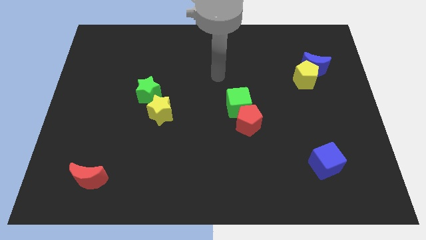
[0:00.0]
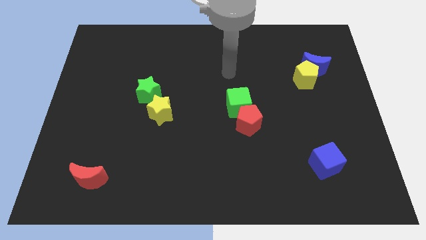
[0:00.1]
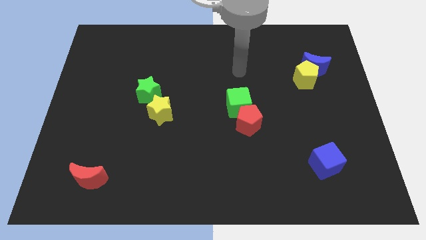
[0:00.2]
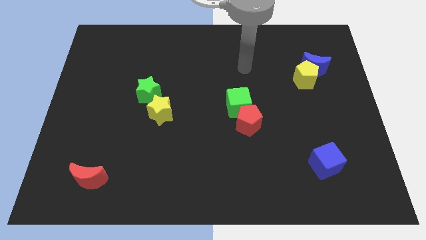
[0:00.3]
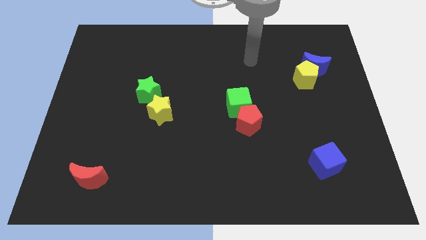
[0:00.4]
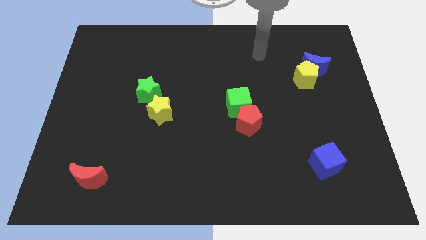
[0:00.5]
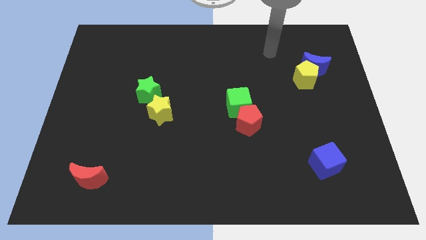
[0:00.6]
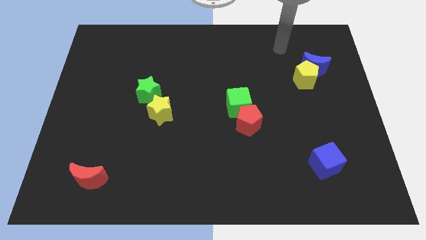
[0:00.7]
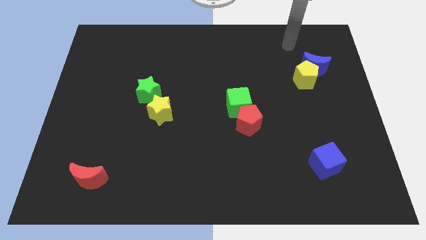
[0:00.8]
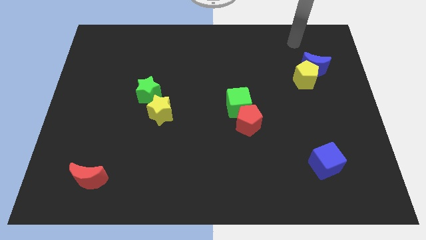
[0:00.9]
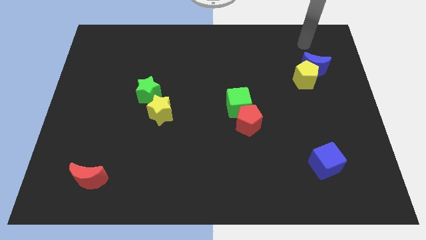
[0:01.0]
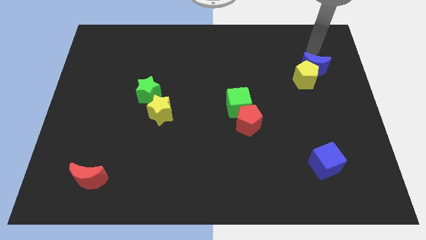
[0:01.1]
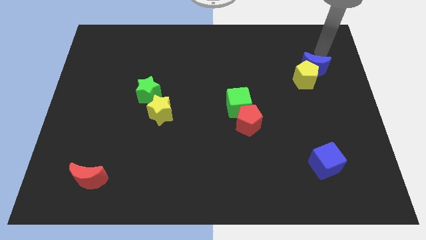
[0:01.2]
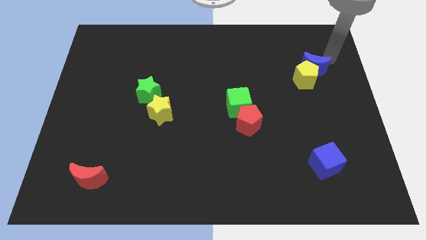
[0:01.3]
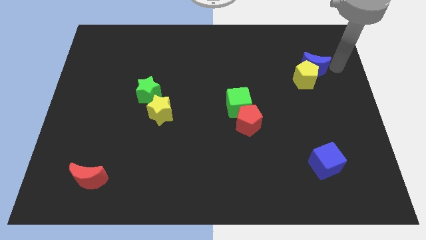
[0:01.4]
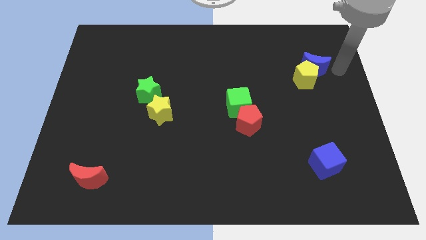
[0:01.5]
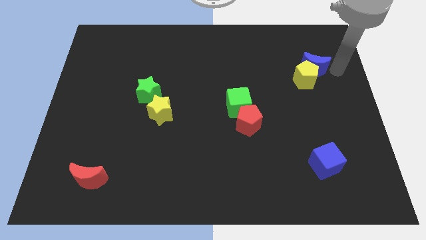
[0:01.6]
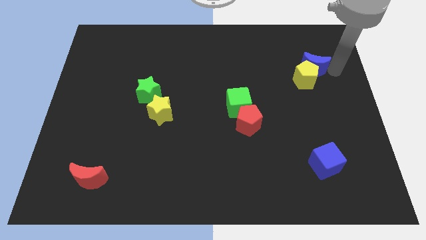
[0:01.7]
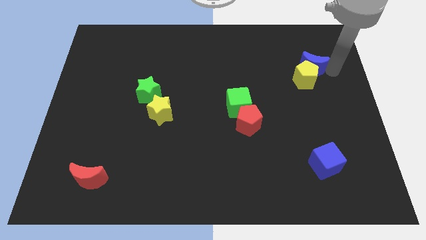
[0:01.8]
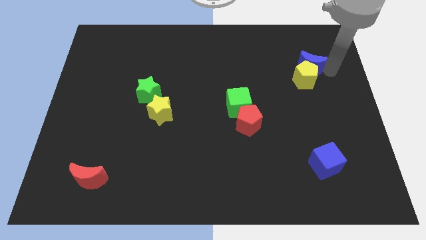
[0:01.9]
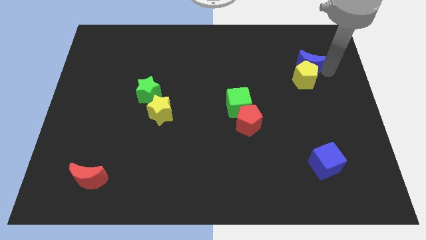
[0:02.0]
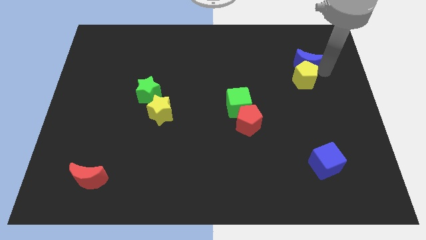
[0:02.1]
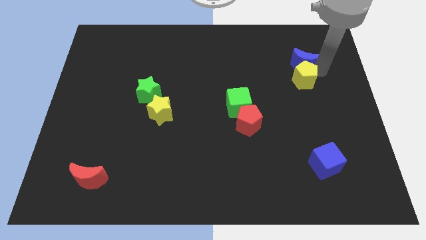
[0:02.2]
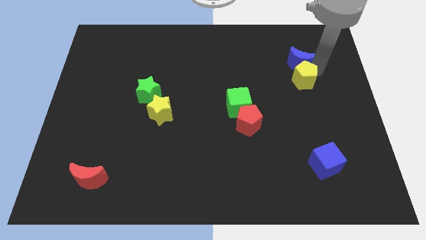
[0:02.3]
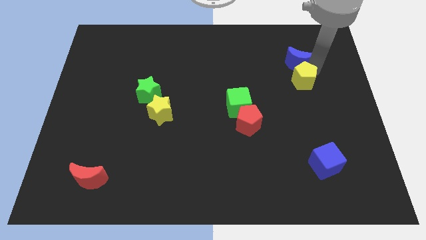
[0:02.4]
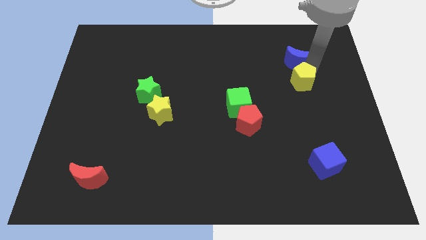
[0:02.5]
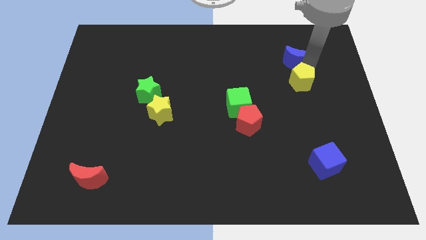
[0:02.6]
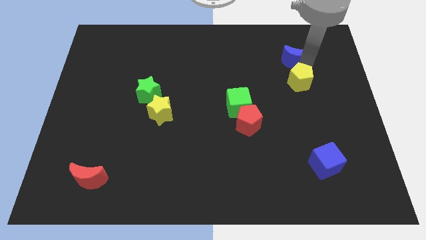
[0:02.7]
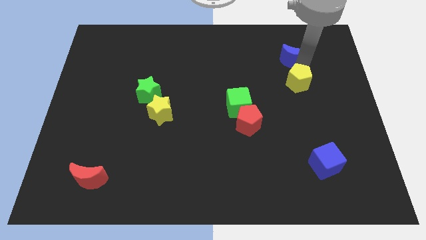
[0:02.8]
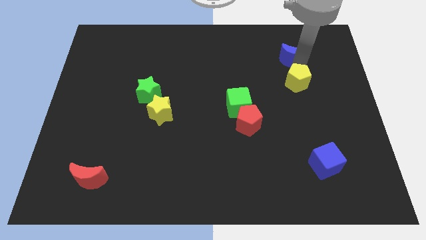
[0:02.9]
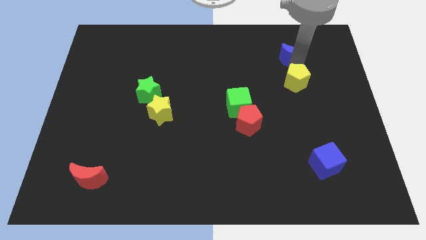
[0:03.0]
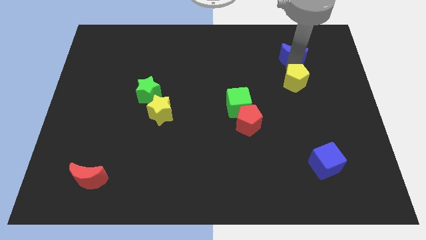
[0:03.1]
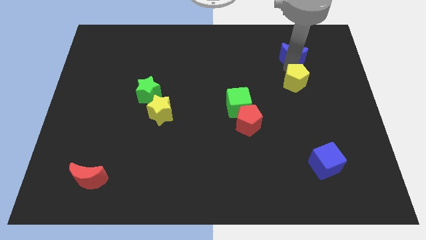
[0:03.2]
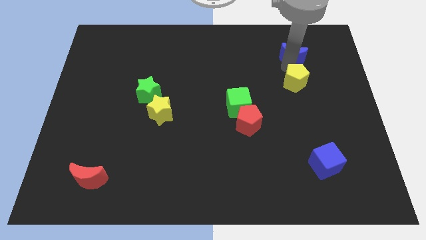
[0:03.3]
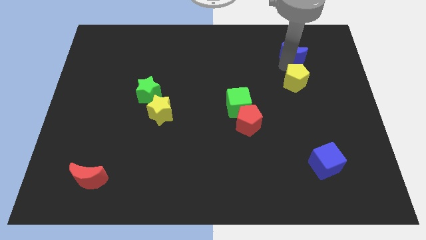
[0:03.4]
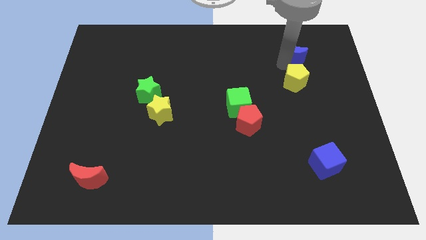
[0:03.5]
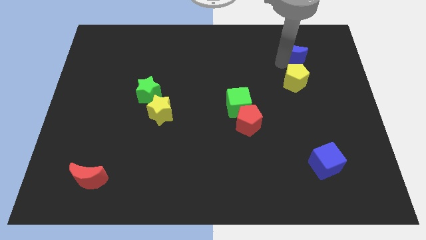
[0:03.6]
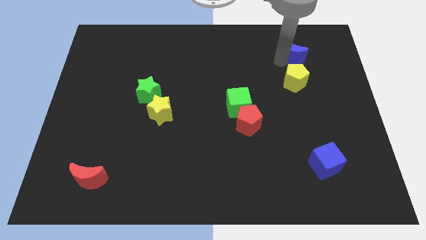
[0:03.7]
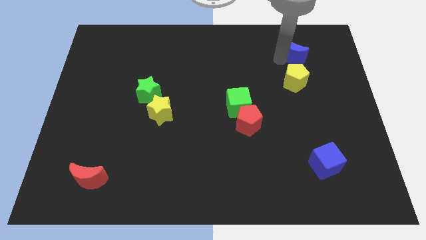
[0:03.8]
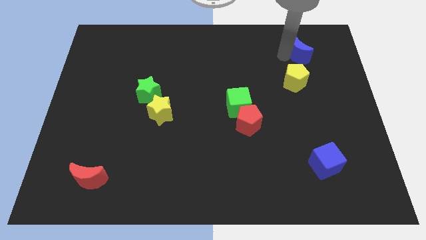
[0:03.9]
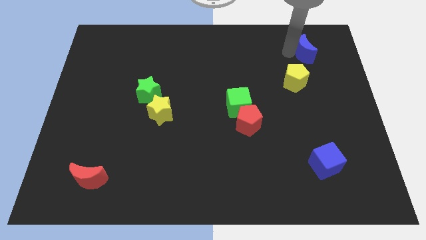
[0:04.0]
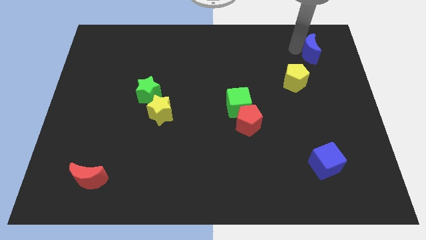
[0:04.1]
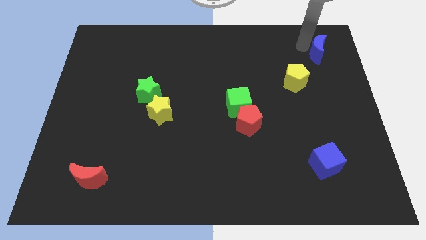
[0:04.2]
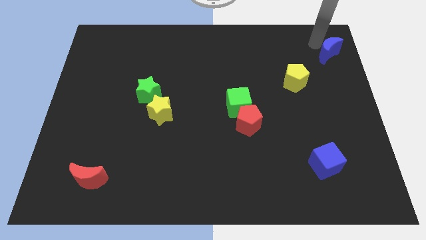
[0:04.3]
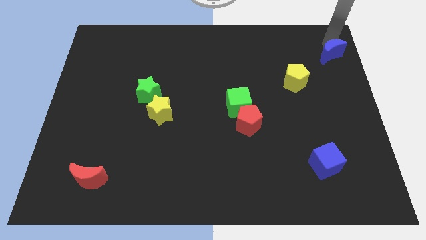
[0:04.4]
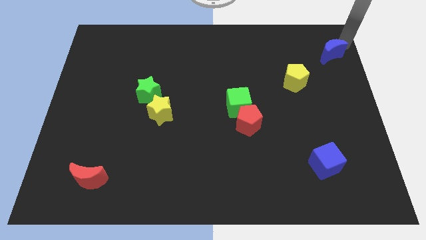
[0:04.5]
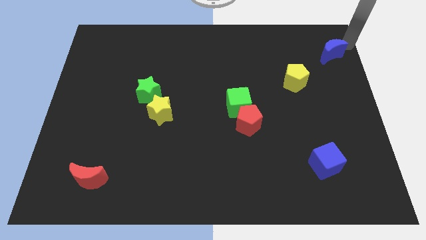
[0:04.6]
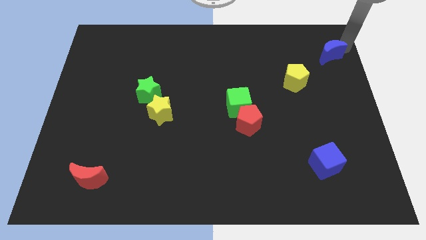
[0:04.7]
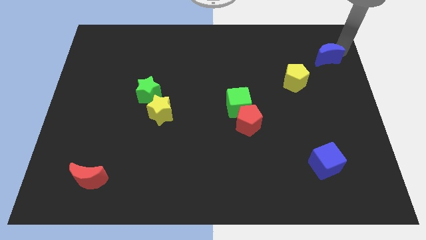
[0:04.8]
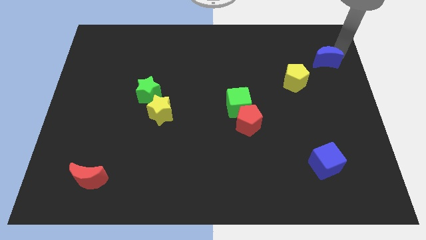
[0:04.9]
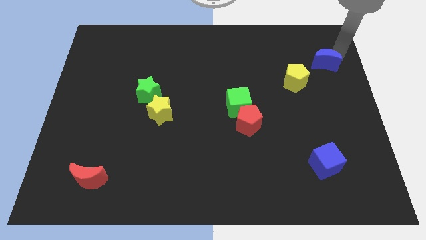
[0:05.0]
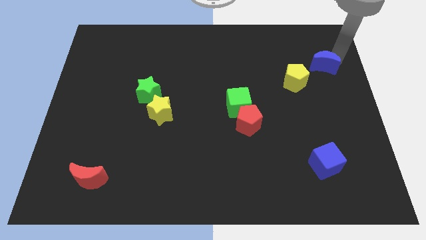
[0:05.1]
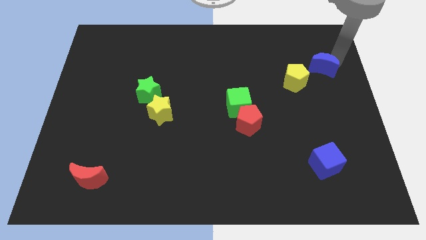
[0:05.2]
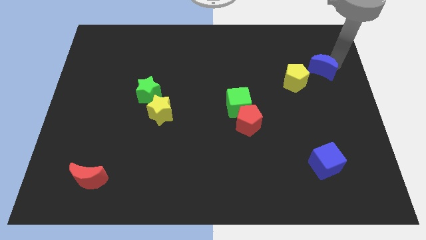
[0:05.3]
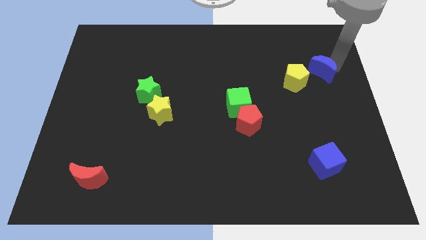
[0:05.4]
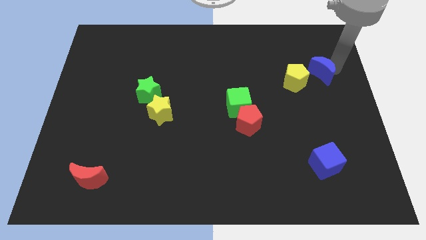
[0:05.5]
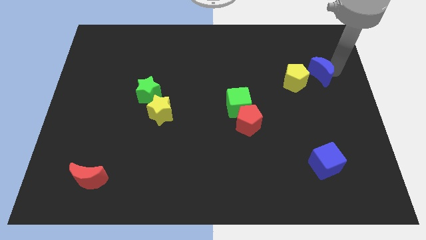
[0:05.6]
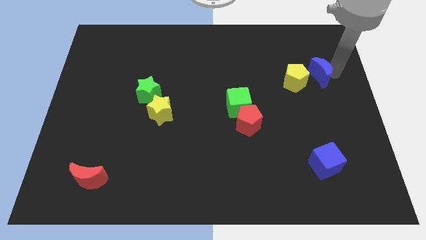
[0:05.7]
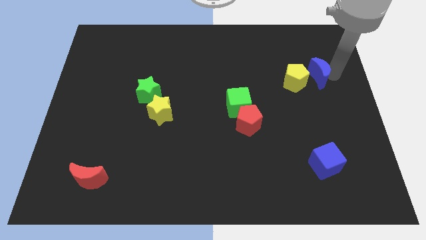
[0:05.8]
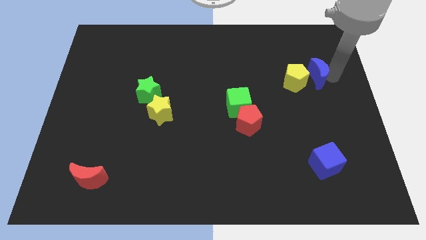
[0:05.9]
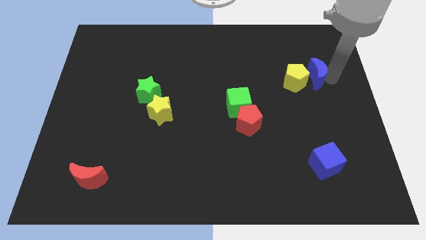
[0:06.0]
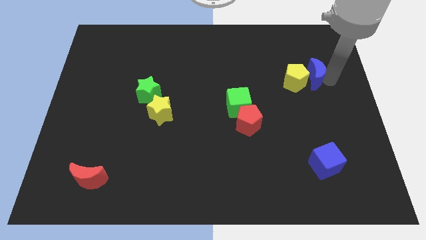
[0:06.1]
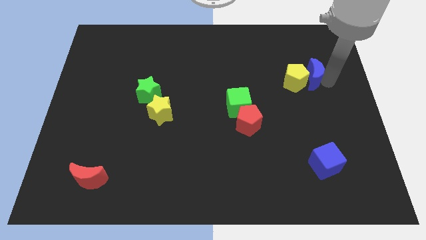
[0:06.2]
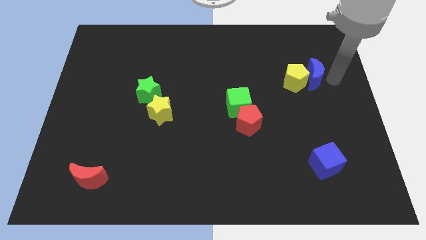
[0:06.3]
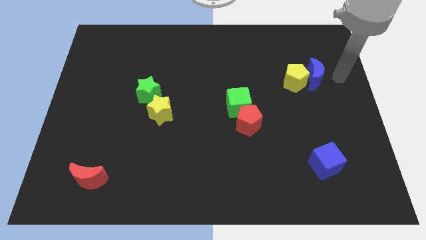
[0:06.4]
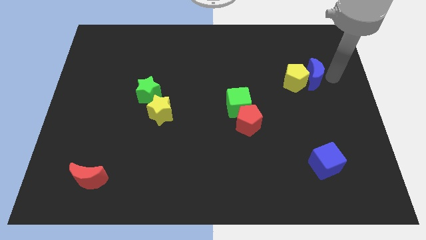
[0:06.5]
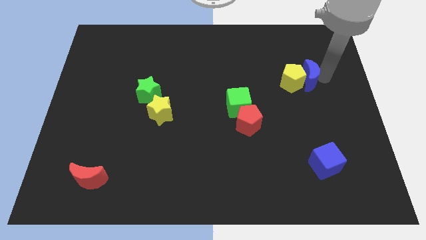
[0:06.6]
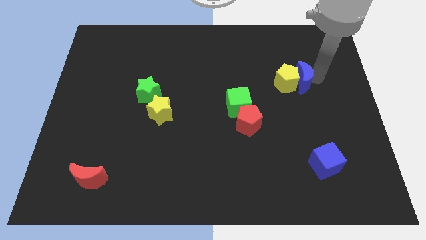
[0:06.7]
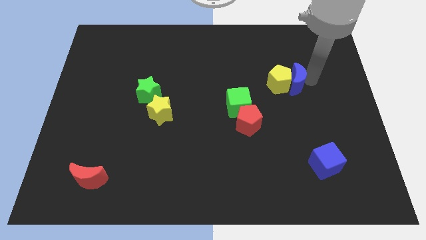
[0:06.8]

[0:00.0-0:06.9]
move the blue moon somewhat diagonally down and to the left

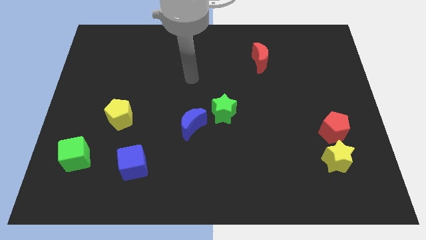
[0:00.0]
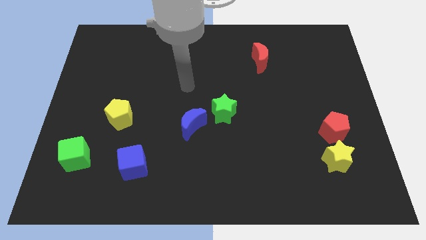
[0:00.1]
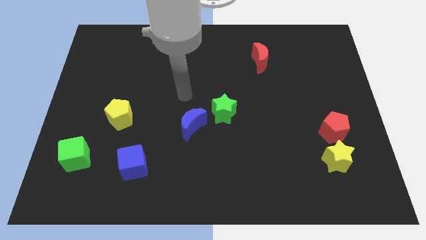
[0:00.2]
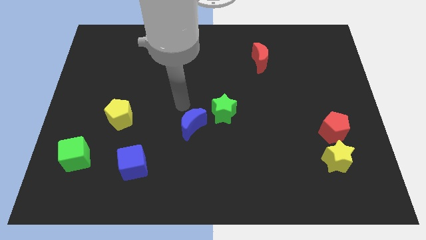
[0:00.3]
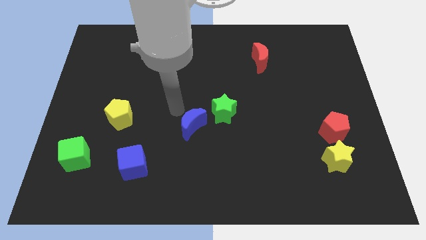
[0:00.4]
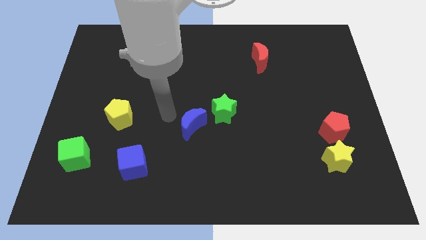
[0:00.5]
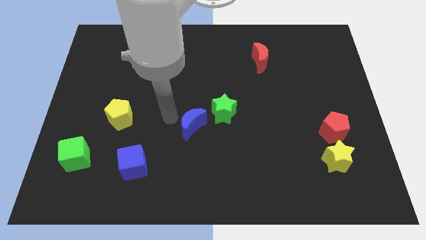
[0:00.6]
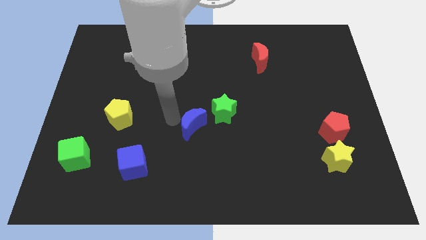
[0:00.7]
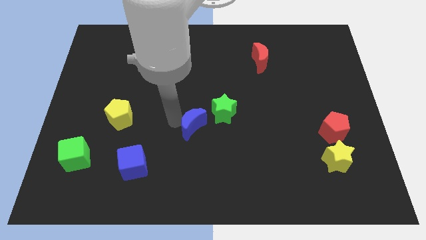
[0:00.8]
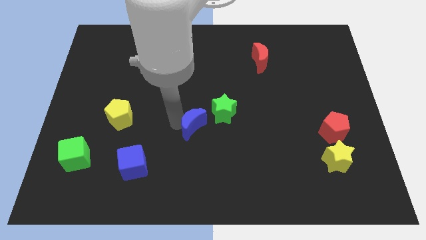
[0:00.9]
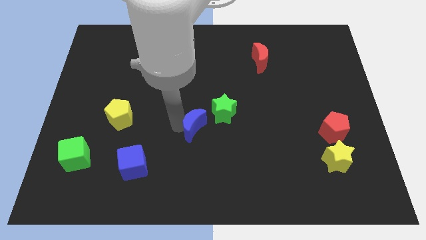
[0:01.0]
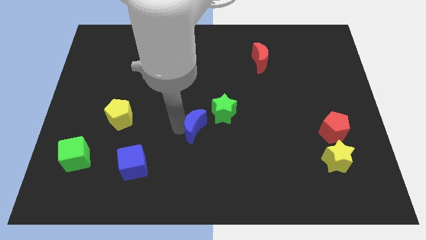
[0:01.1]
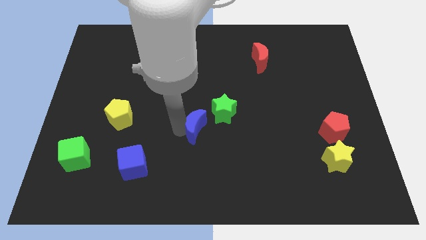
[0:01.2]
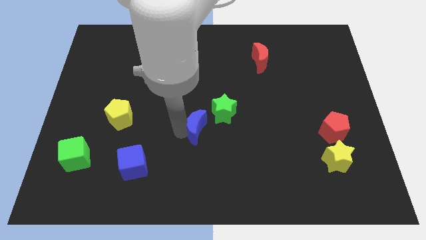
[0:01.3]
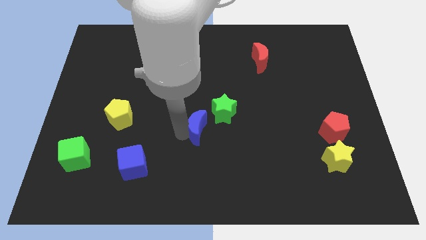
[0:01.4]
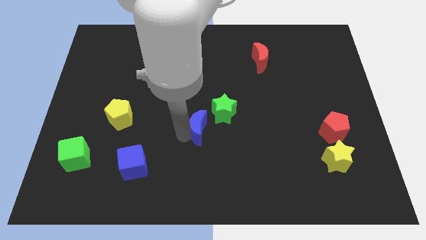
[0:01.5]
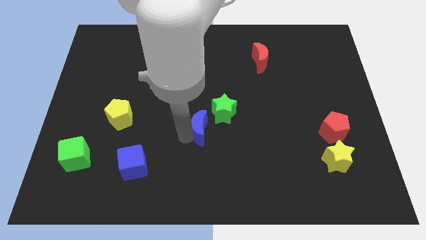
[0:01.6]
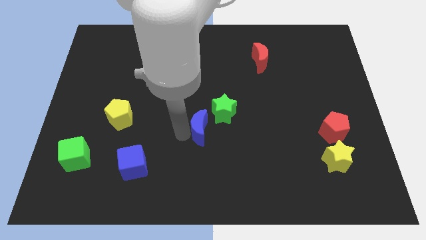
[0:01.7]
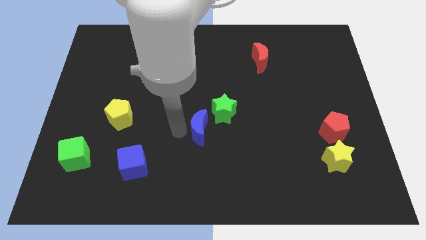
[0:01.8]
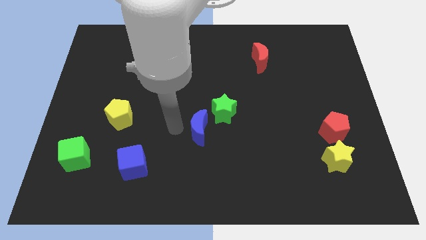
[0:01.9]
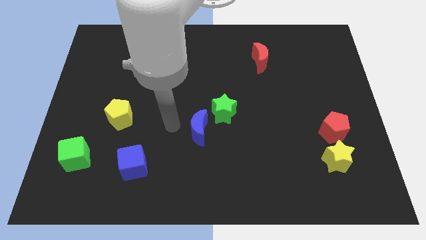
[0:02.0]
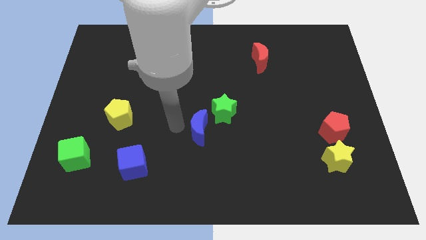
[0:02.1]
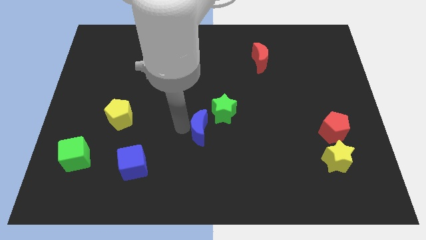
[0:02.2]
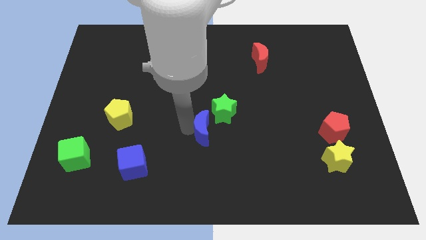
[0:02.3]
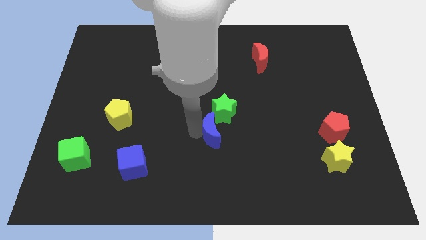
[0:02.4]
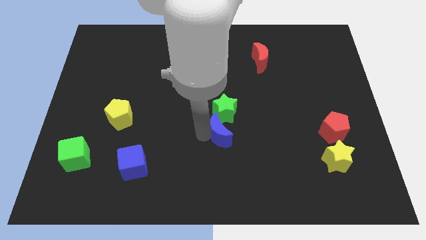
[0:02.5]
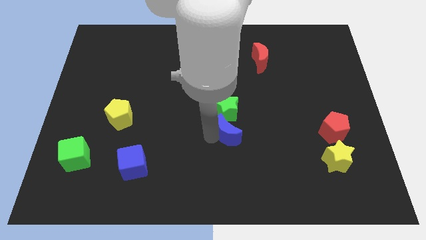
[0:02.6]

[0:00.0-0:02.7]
slightly move the blue moon right
